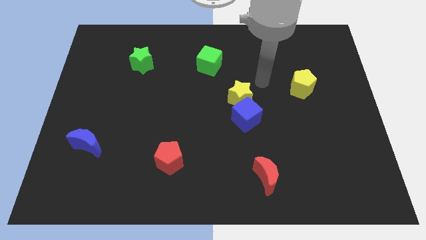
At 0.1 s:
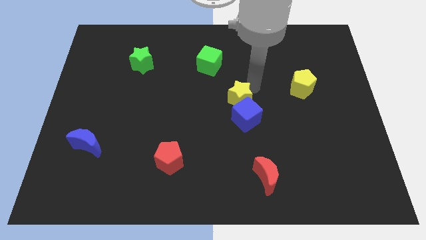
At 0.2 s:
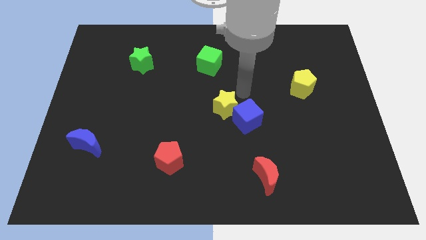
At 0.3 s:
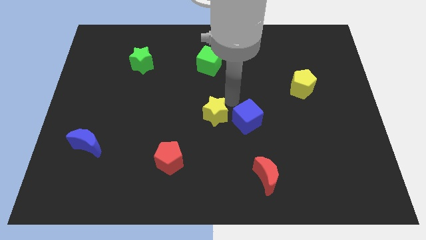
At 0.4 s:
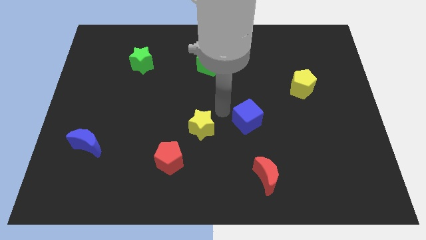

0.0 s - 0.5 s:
move the blue cube away from the yellow star

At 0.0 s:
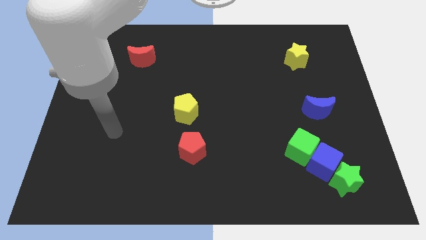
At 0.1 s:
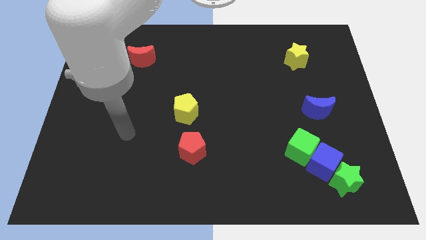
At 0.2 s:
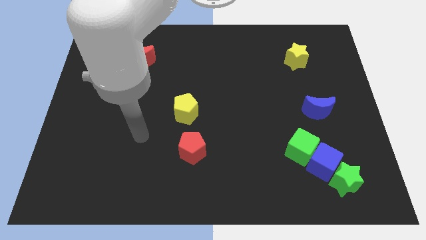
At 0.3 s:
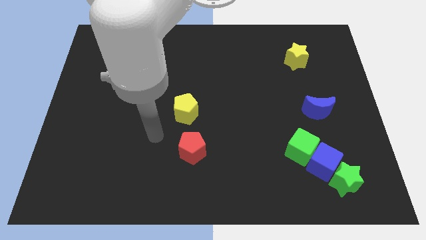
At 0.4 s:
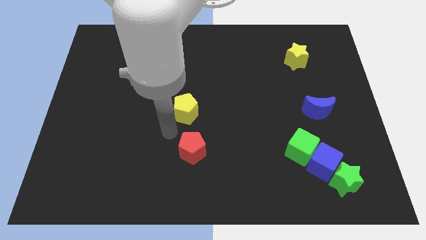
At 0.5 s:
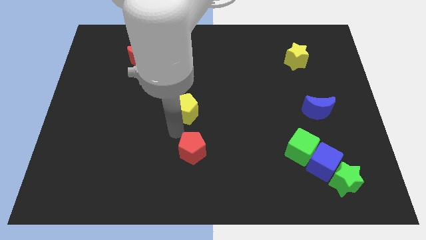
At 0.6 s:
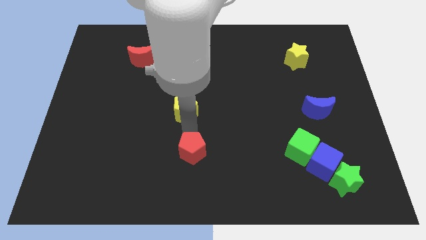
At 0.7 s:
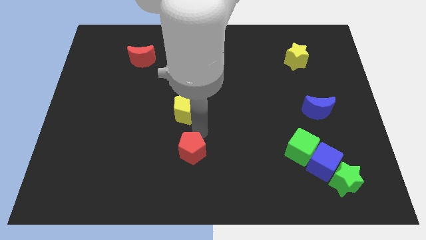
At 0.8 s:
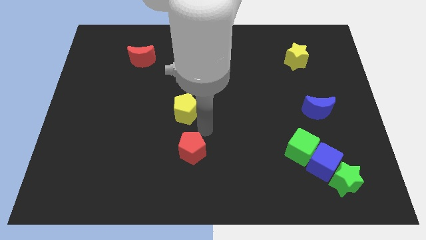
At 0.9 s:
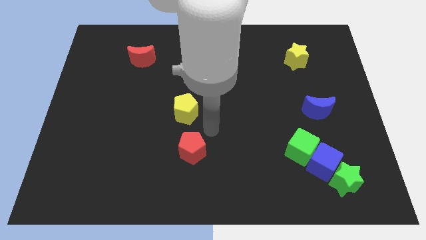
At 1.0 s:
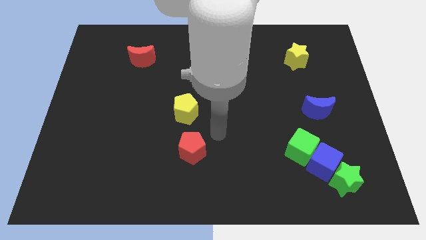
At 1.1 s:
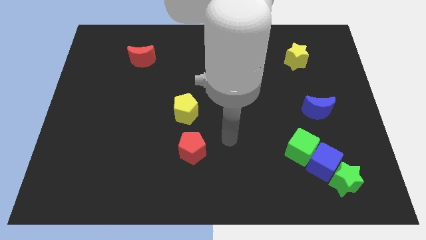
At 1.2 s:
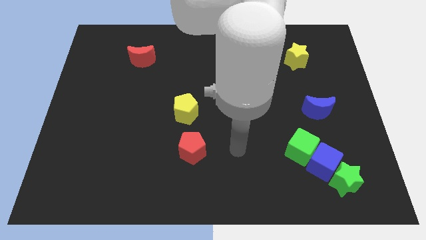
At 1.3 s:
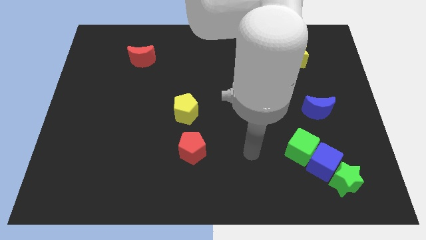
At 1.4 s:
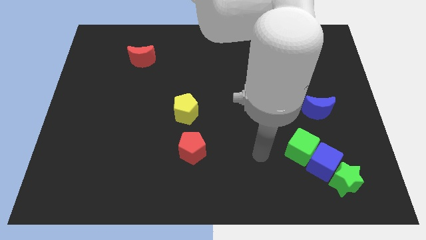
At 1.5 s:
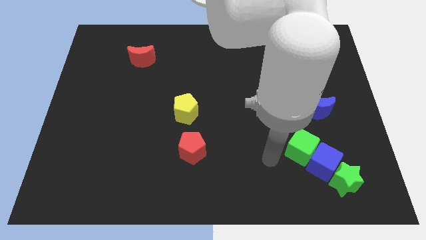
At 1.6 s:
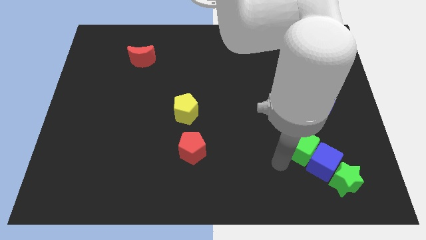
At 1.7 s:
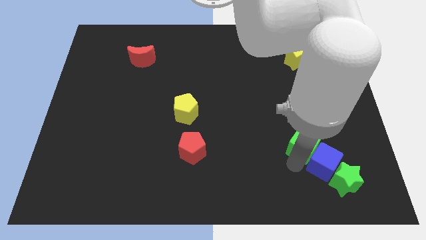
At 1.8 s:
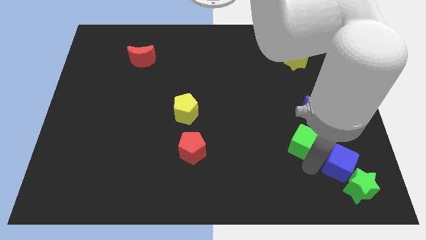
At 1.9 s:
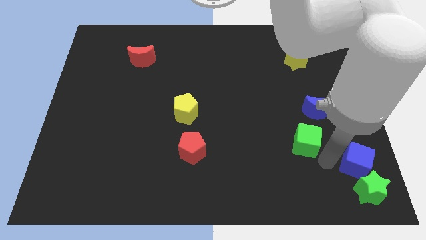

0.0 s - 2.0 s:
move the green cube away from the blue cube

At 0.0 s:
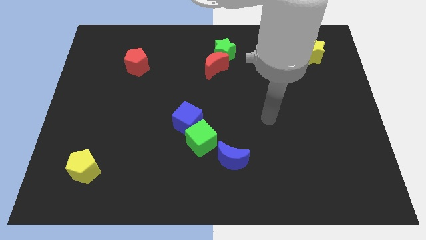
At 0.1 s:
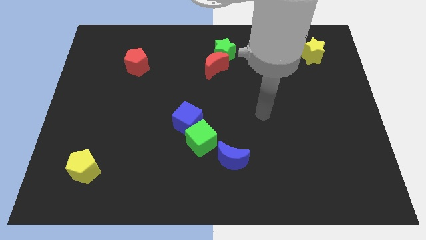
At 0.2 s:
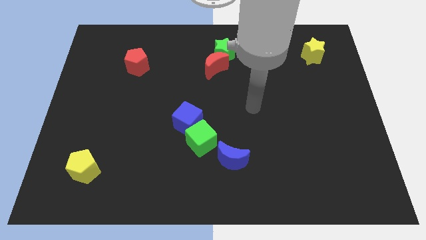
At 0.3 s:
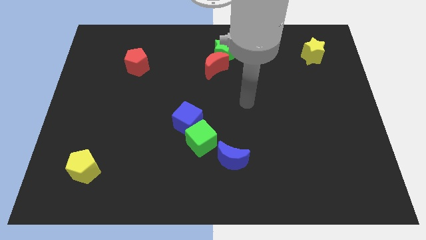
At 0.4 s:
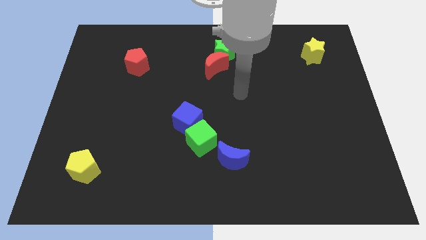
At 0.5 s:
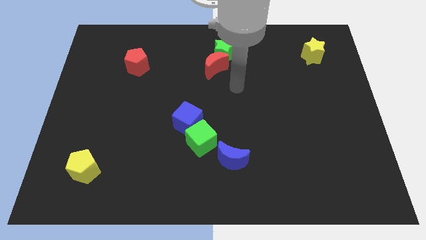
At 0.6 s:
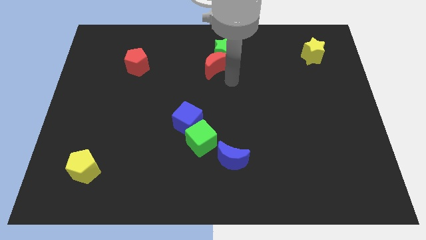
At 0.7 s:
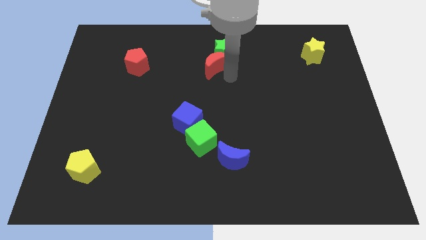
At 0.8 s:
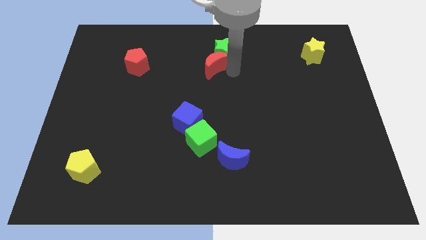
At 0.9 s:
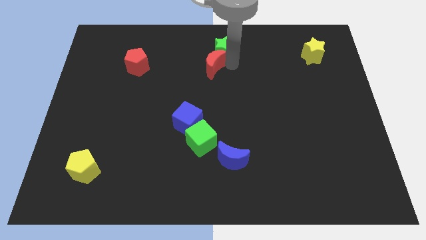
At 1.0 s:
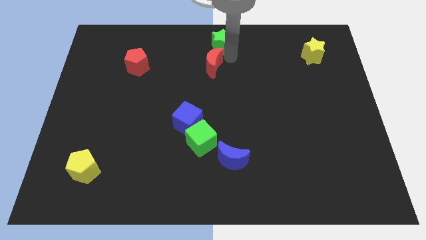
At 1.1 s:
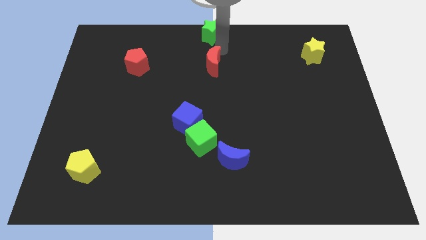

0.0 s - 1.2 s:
separate the red moon from the green star

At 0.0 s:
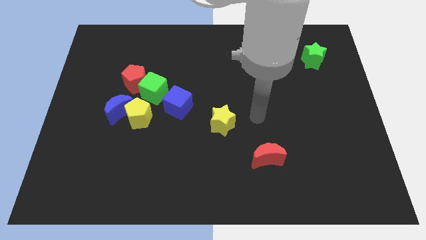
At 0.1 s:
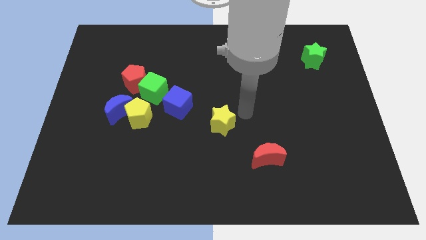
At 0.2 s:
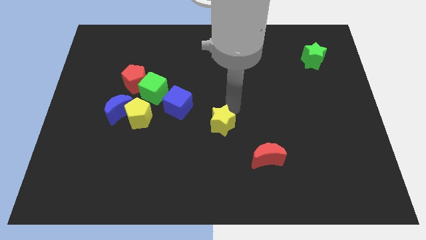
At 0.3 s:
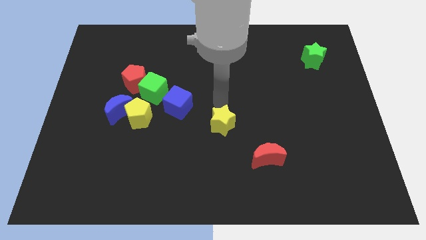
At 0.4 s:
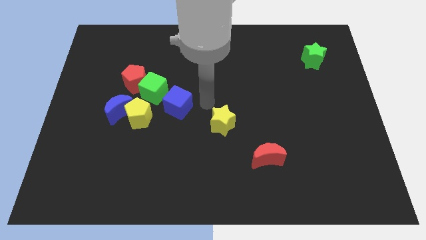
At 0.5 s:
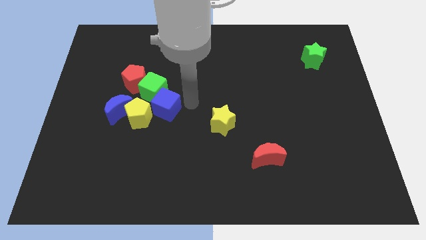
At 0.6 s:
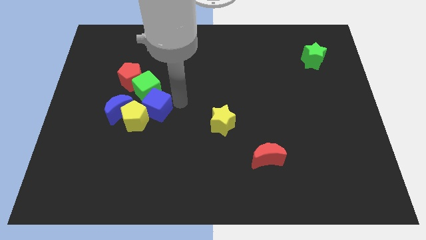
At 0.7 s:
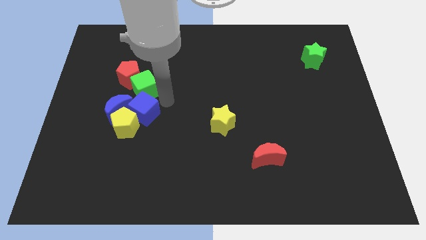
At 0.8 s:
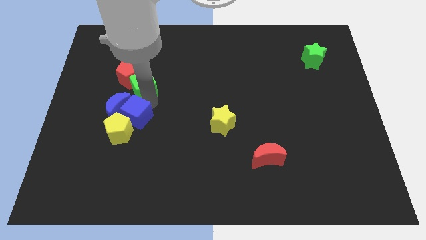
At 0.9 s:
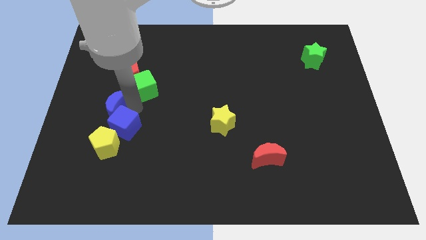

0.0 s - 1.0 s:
separate the yellow pentagon from the clump

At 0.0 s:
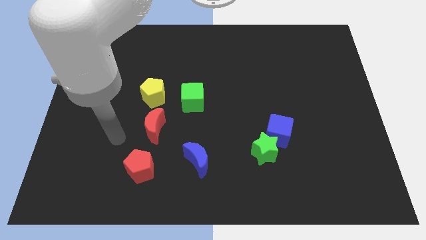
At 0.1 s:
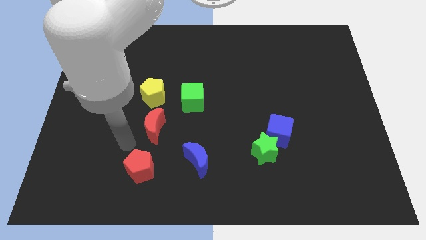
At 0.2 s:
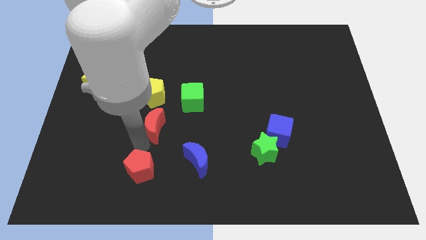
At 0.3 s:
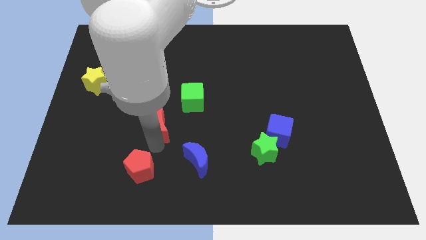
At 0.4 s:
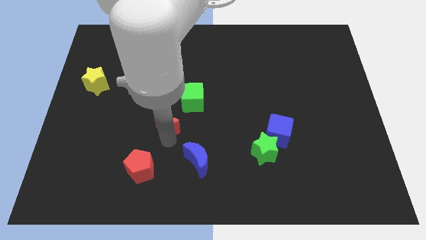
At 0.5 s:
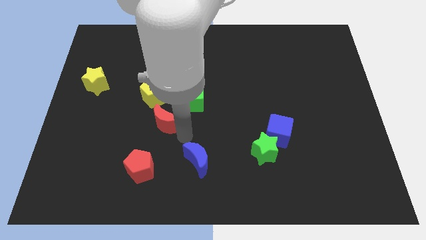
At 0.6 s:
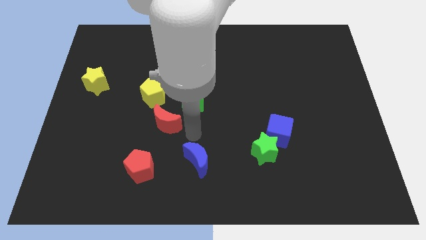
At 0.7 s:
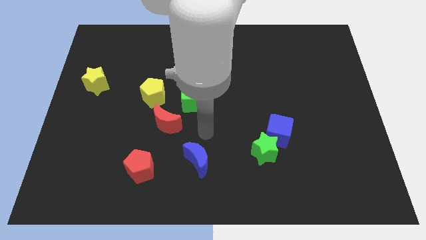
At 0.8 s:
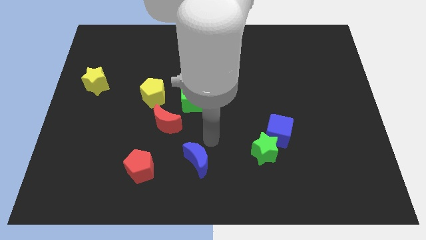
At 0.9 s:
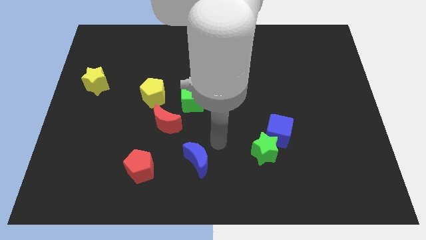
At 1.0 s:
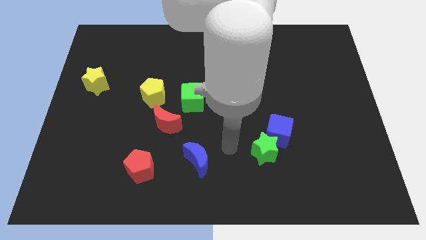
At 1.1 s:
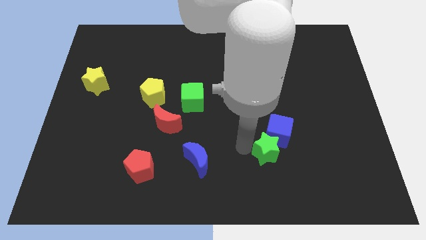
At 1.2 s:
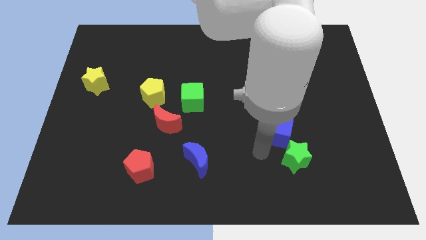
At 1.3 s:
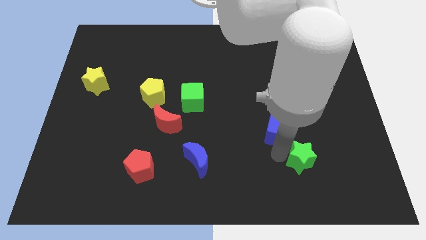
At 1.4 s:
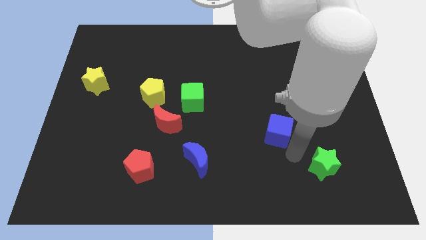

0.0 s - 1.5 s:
move the blue cube away from the green star

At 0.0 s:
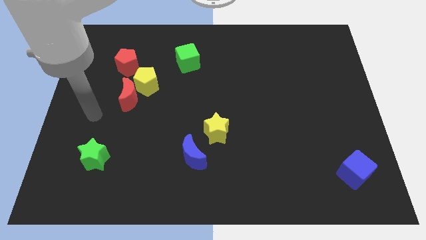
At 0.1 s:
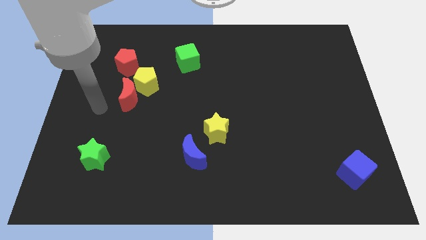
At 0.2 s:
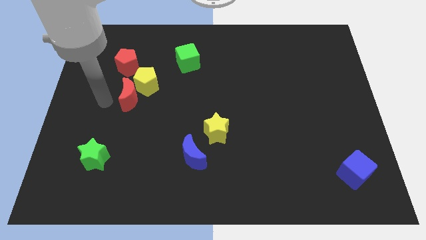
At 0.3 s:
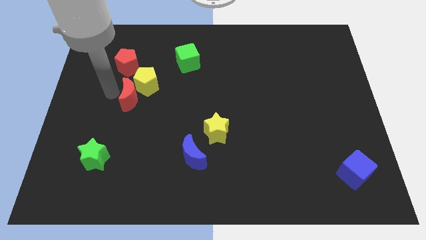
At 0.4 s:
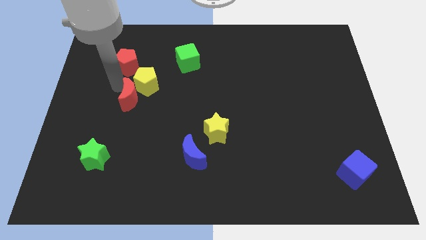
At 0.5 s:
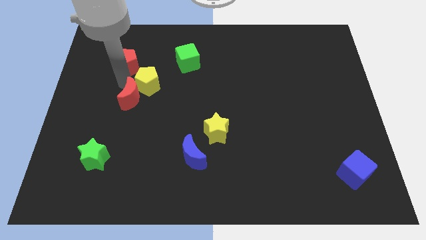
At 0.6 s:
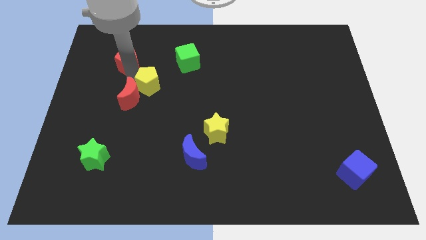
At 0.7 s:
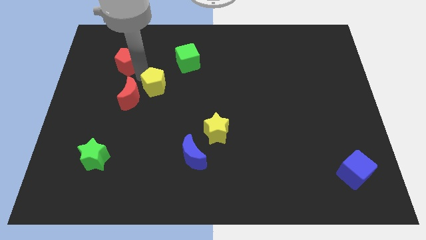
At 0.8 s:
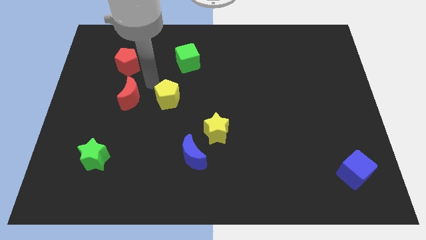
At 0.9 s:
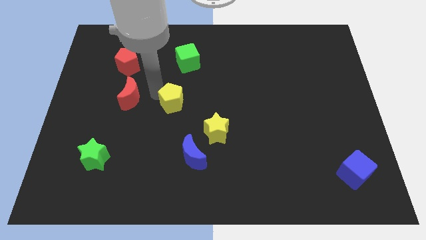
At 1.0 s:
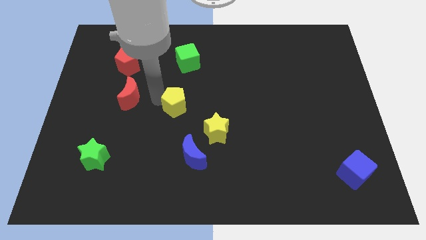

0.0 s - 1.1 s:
pull the red moon apart from the yellow pentagon

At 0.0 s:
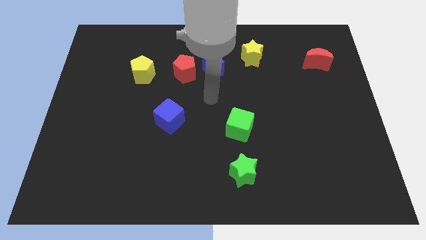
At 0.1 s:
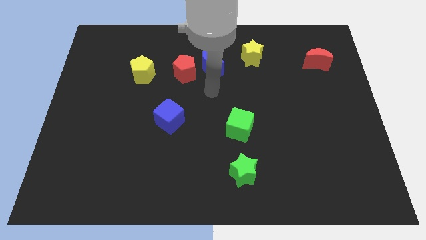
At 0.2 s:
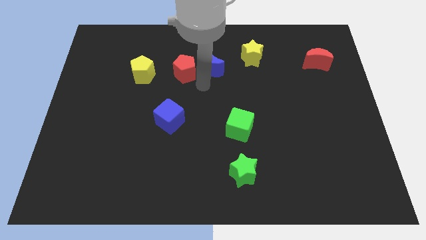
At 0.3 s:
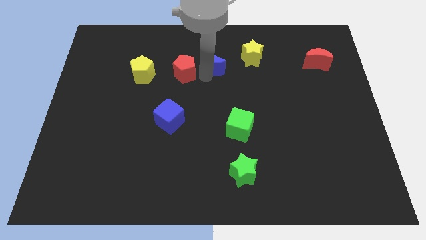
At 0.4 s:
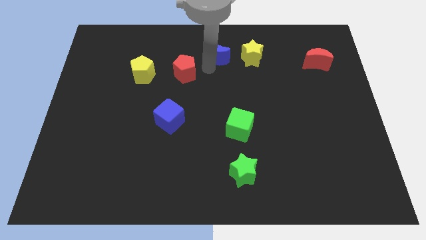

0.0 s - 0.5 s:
move the red pentagon away from the blue moon

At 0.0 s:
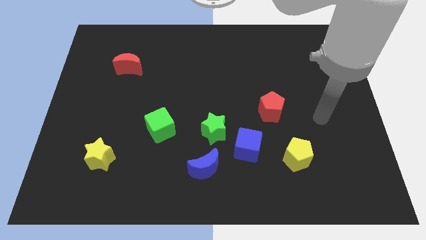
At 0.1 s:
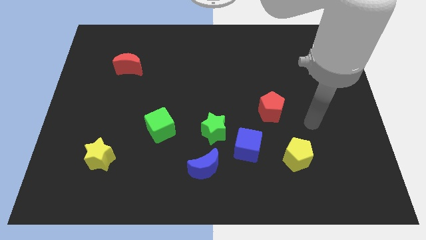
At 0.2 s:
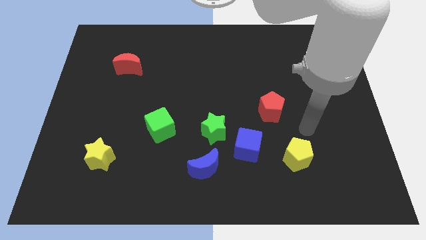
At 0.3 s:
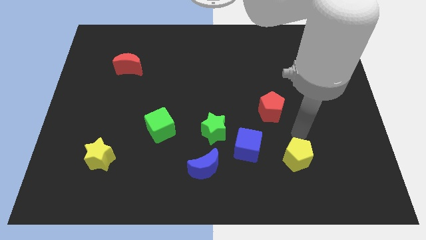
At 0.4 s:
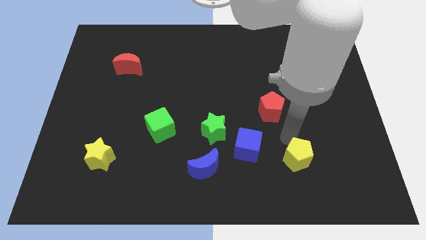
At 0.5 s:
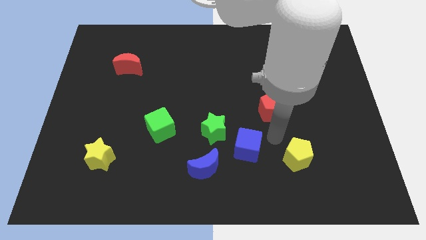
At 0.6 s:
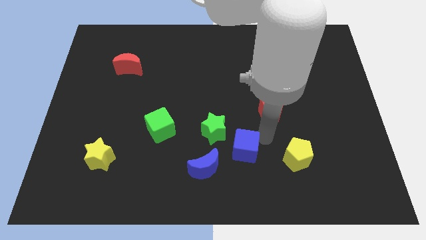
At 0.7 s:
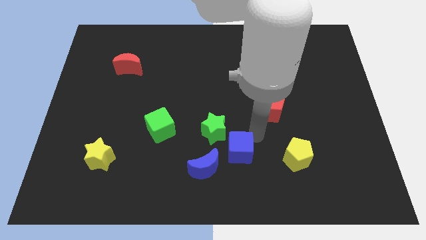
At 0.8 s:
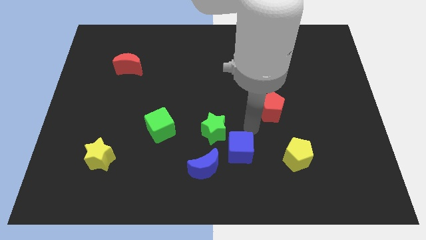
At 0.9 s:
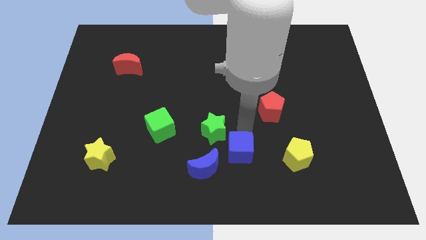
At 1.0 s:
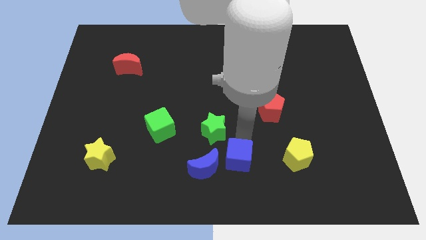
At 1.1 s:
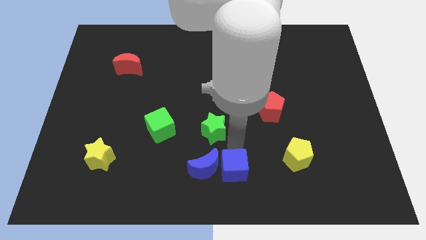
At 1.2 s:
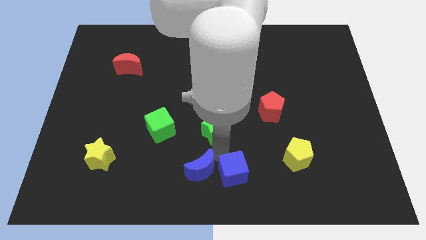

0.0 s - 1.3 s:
move the green star away from the blue cube and blue moon
